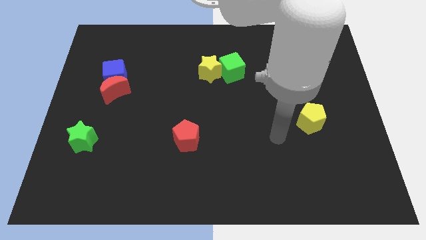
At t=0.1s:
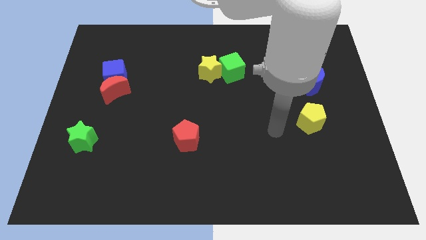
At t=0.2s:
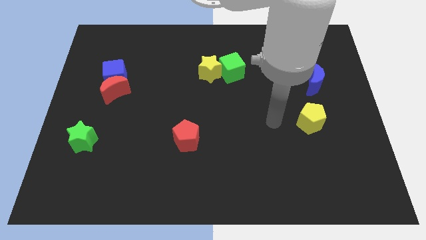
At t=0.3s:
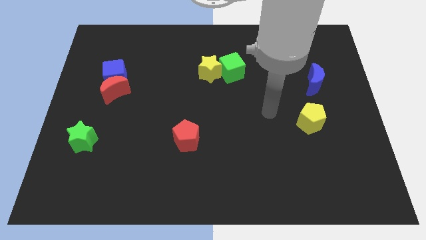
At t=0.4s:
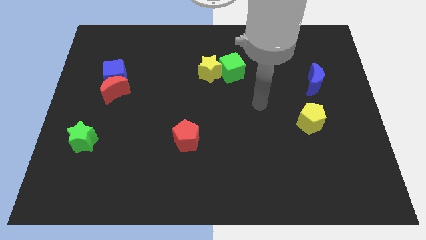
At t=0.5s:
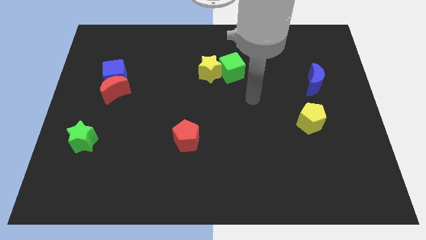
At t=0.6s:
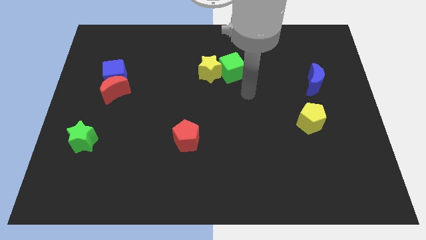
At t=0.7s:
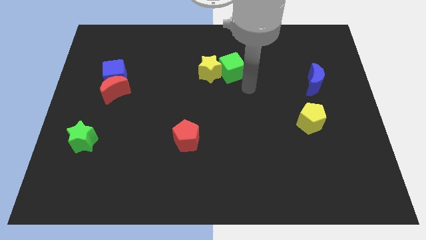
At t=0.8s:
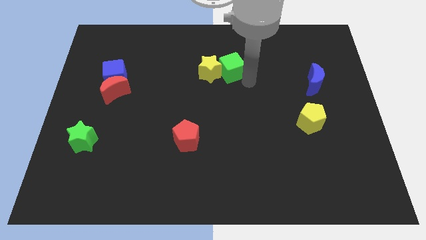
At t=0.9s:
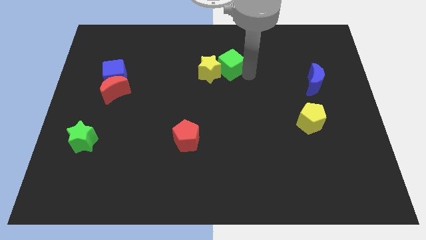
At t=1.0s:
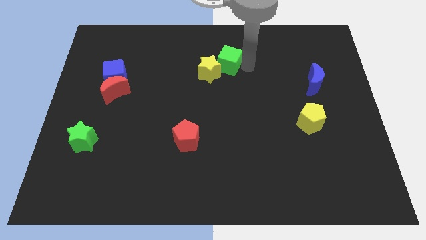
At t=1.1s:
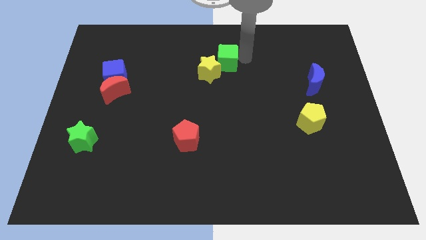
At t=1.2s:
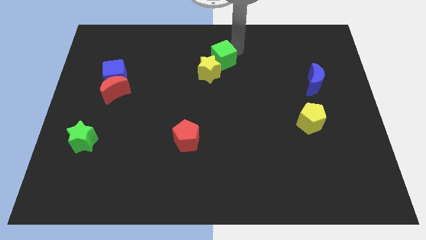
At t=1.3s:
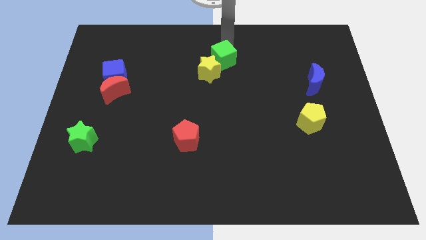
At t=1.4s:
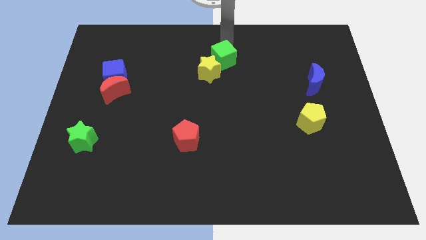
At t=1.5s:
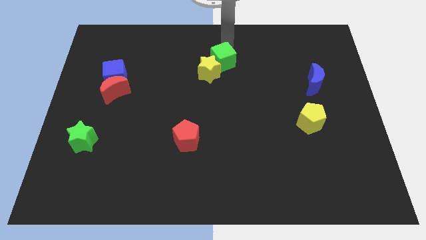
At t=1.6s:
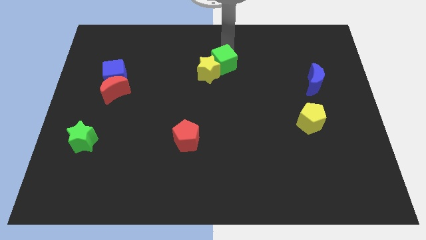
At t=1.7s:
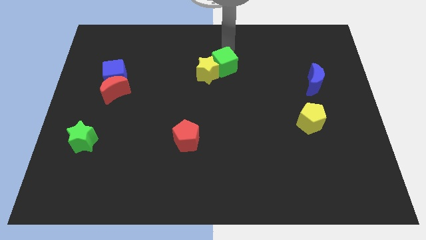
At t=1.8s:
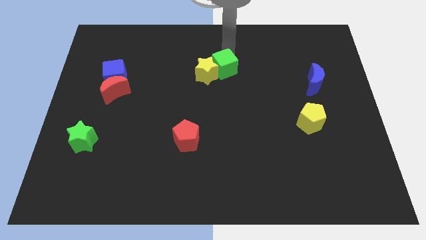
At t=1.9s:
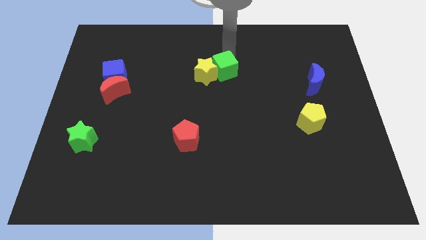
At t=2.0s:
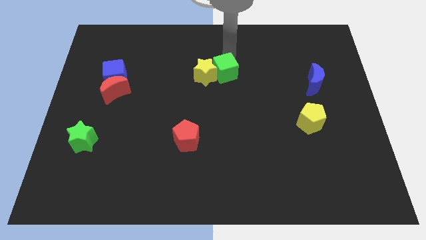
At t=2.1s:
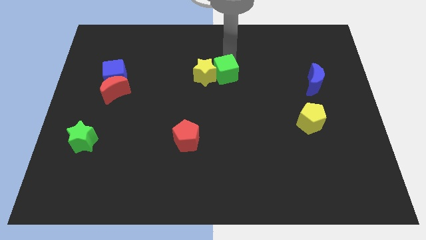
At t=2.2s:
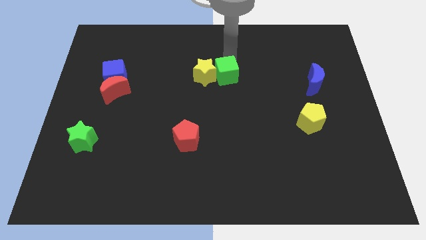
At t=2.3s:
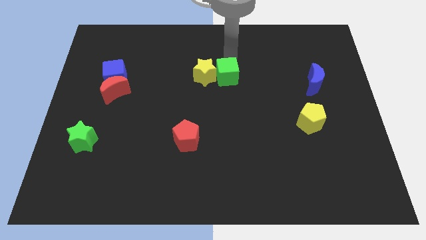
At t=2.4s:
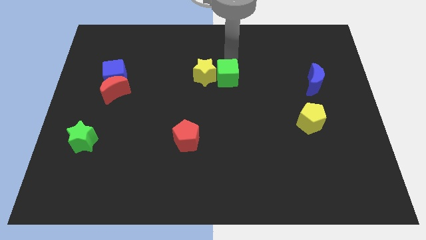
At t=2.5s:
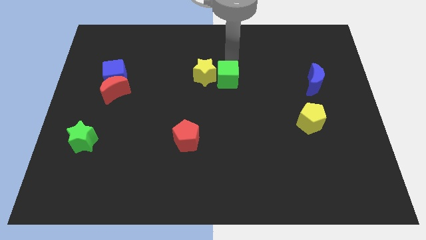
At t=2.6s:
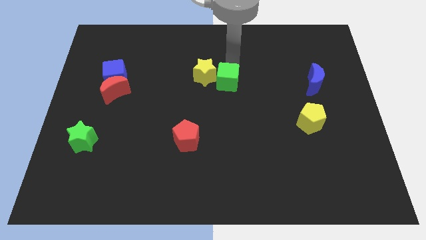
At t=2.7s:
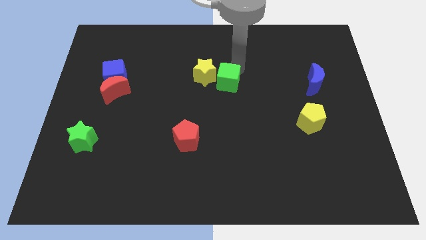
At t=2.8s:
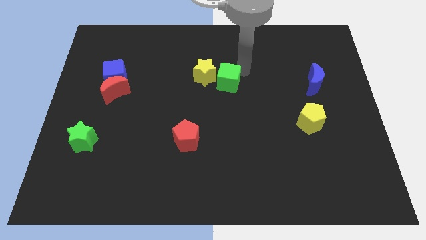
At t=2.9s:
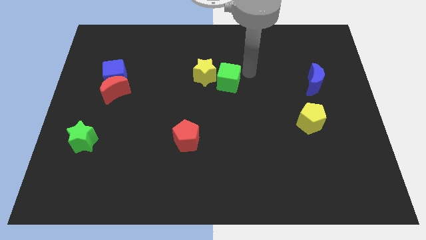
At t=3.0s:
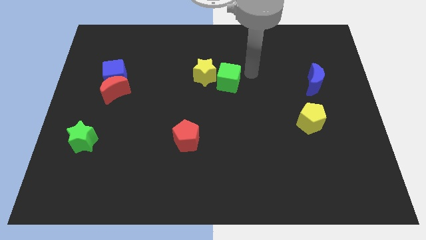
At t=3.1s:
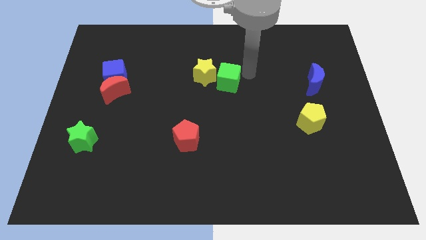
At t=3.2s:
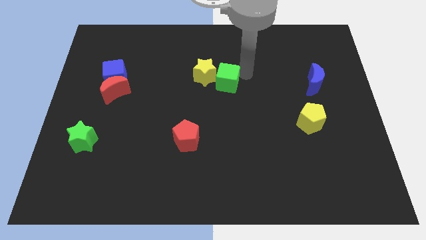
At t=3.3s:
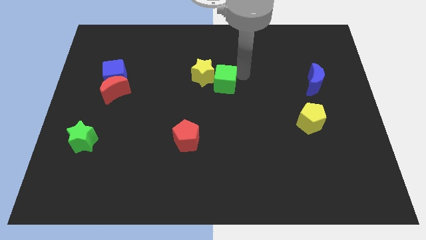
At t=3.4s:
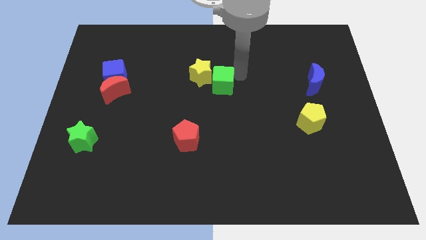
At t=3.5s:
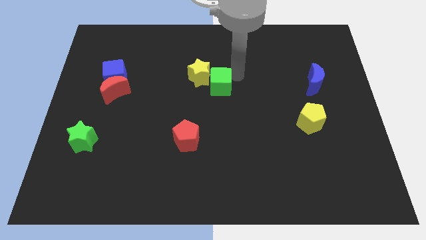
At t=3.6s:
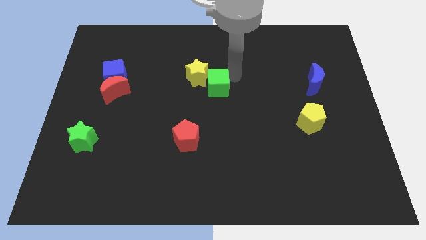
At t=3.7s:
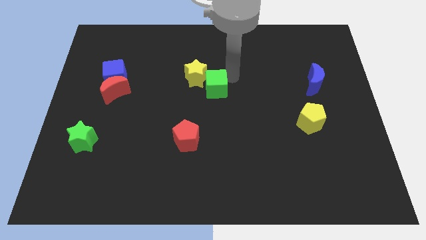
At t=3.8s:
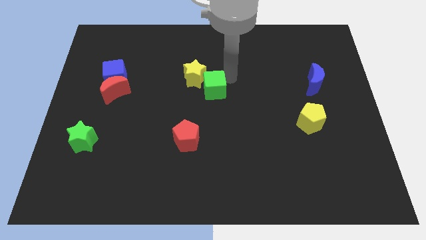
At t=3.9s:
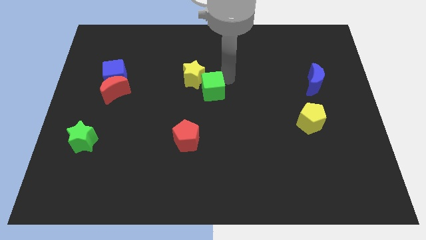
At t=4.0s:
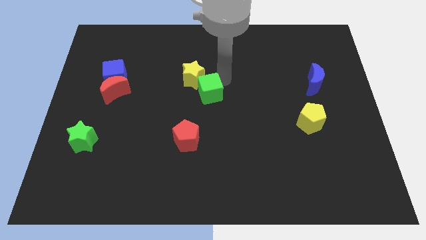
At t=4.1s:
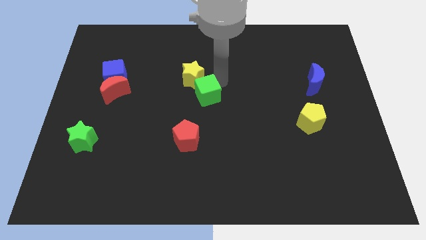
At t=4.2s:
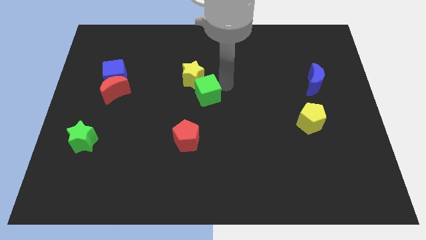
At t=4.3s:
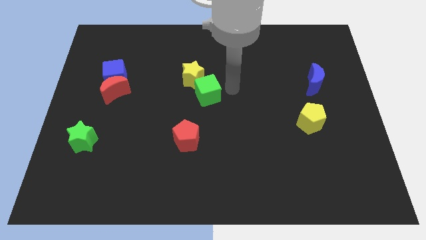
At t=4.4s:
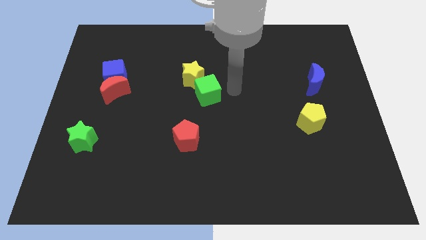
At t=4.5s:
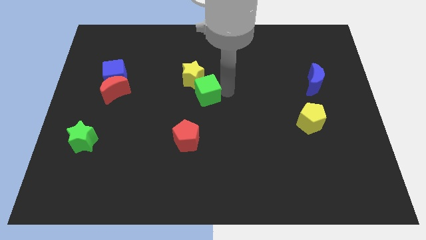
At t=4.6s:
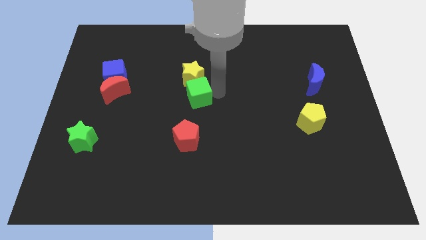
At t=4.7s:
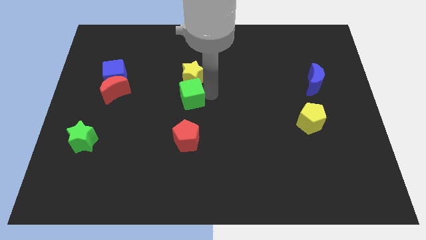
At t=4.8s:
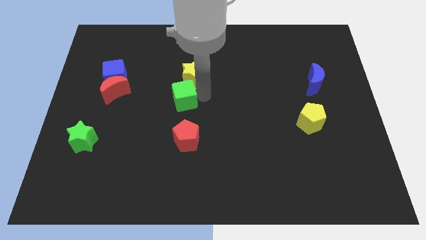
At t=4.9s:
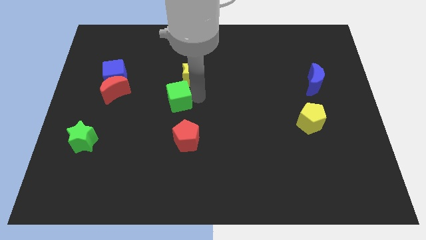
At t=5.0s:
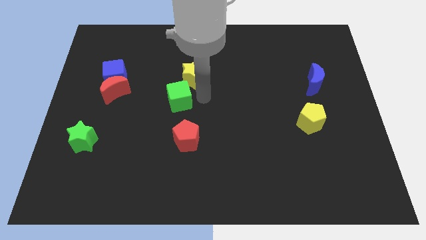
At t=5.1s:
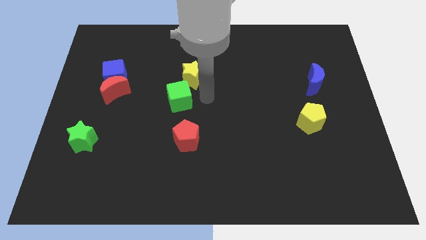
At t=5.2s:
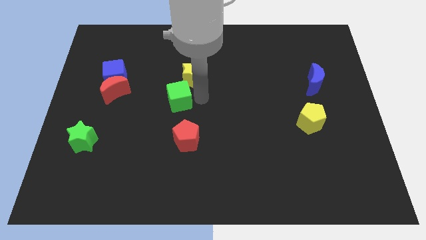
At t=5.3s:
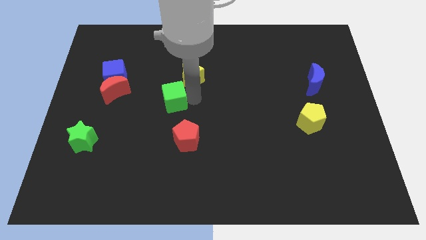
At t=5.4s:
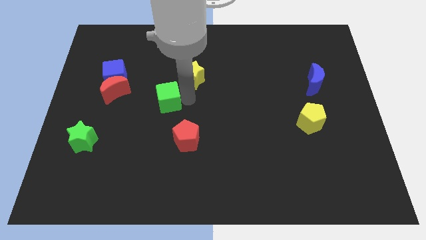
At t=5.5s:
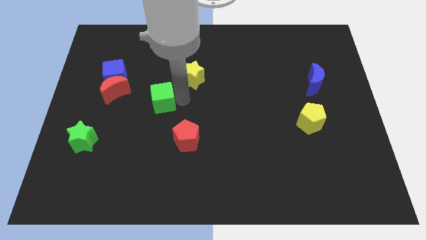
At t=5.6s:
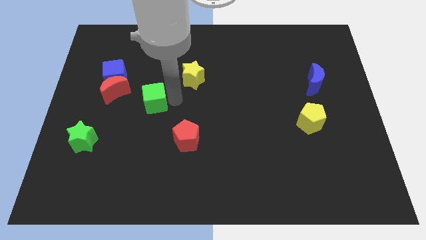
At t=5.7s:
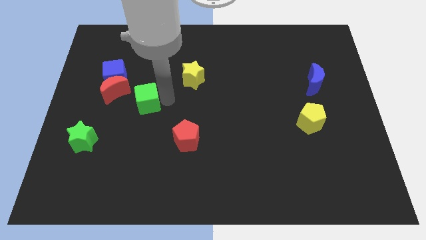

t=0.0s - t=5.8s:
put the green cube to the bottom right side of the red moon
